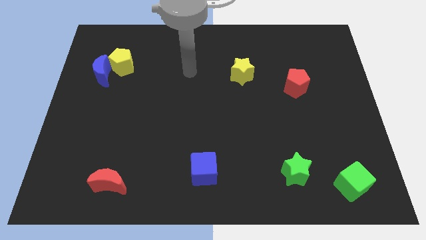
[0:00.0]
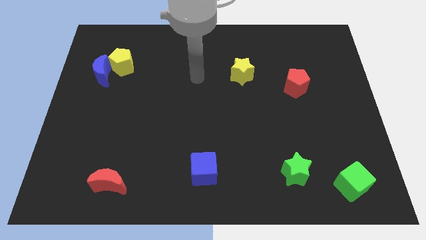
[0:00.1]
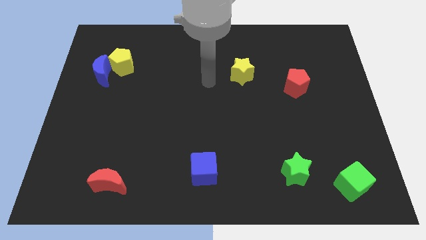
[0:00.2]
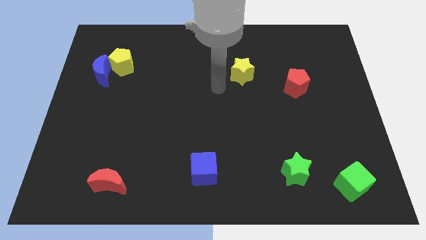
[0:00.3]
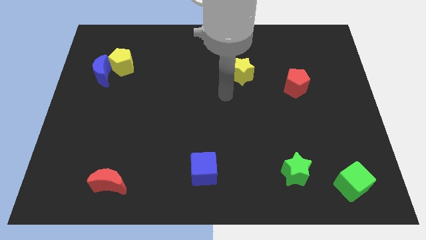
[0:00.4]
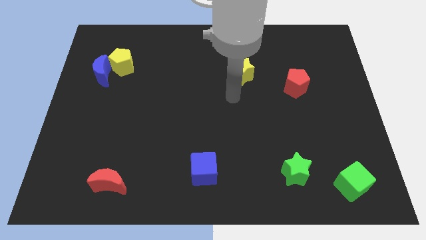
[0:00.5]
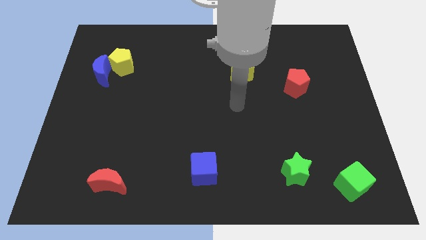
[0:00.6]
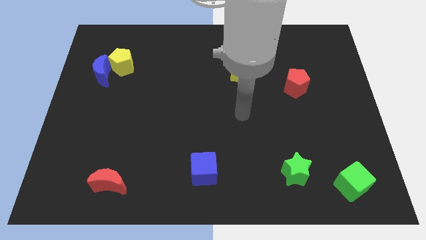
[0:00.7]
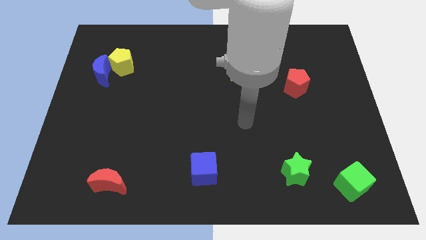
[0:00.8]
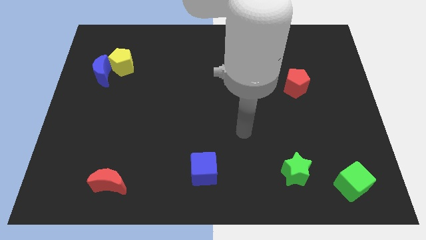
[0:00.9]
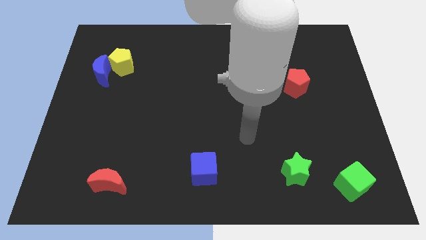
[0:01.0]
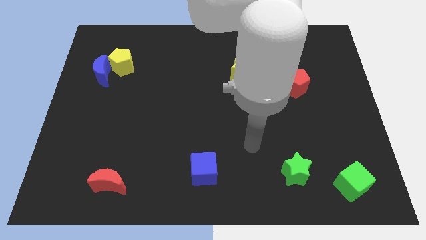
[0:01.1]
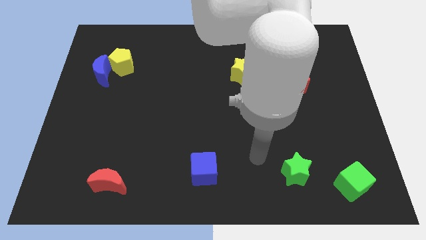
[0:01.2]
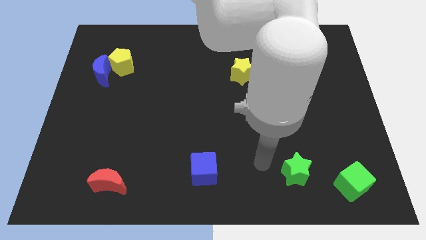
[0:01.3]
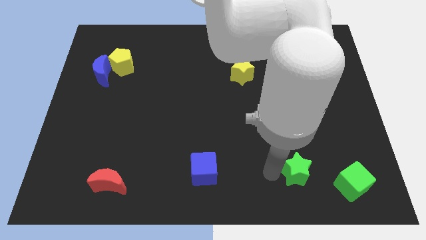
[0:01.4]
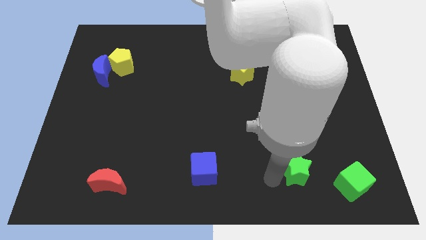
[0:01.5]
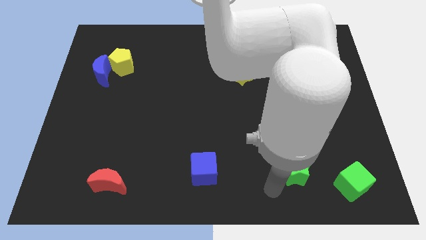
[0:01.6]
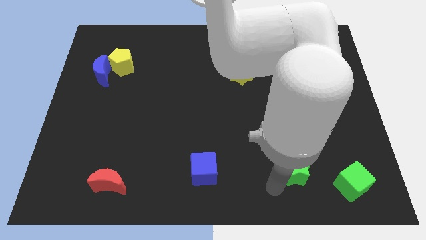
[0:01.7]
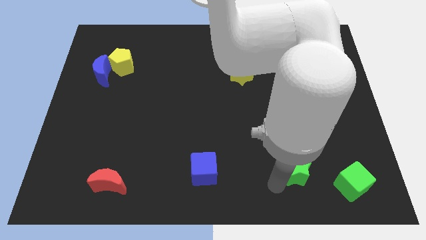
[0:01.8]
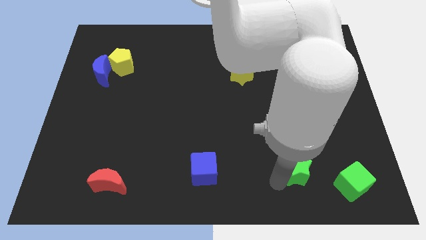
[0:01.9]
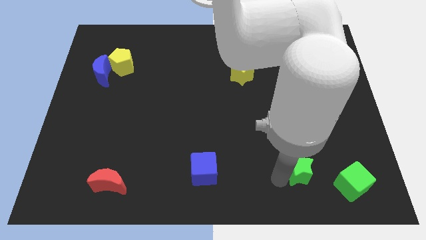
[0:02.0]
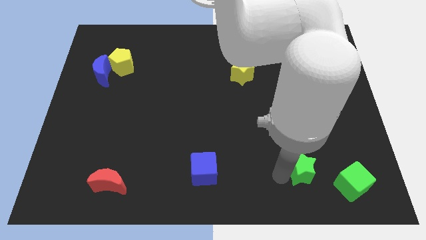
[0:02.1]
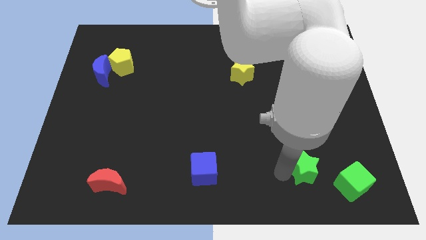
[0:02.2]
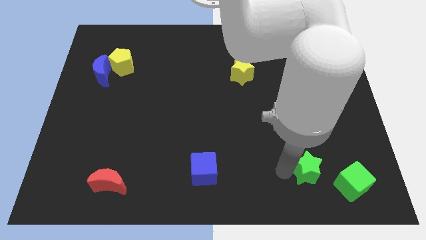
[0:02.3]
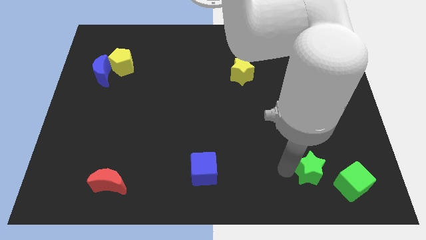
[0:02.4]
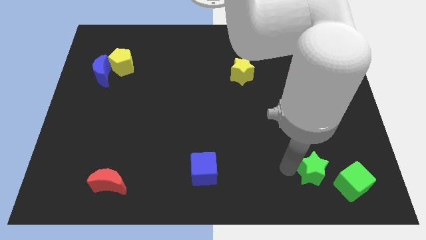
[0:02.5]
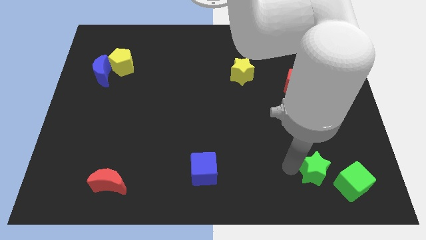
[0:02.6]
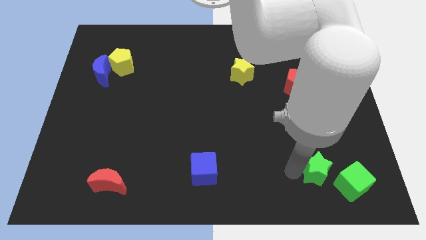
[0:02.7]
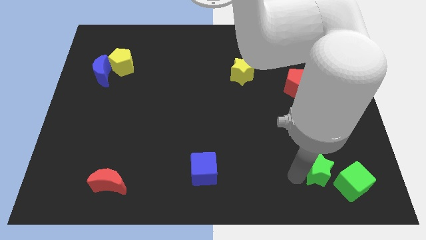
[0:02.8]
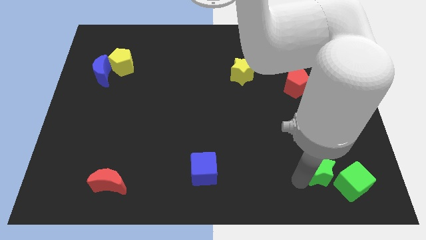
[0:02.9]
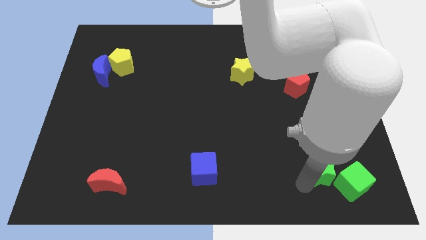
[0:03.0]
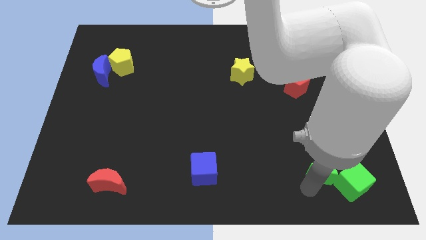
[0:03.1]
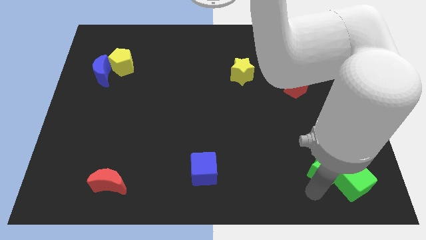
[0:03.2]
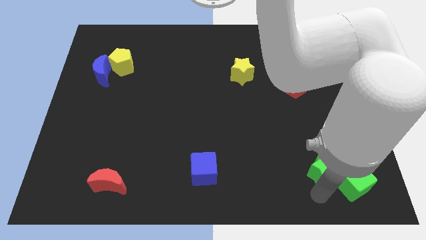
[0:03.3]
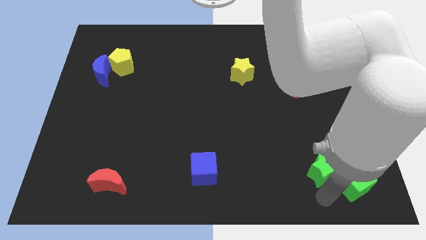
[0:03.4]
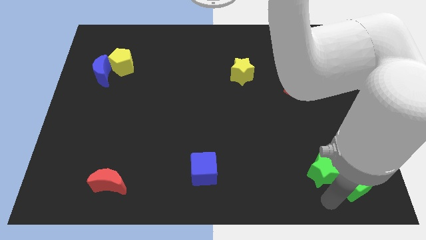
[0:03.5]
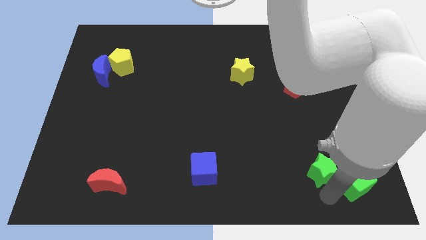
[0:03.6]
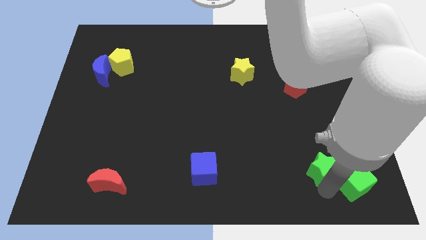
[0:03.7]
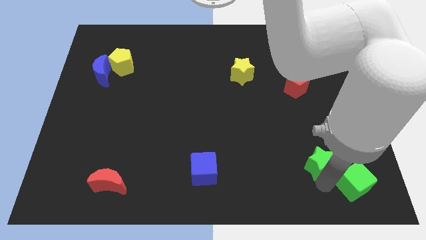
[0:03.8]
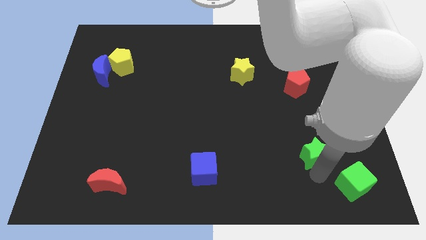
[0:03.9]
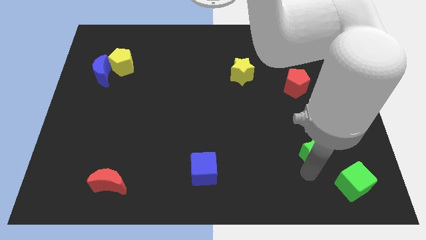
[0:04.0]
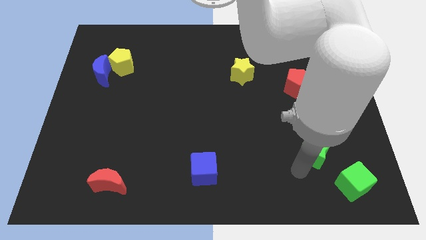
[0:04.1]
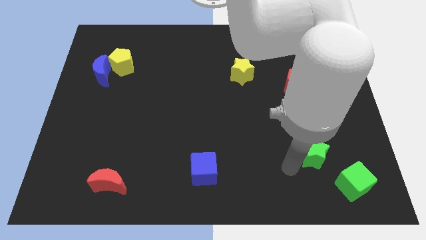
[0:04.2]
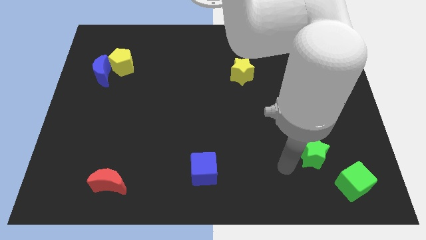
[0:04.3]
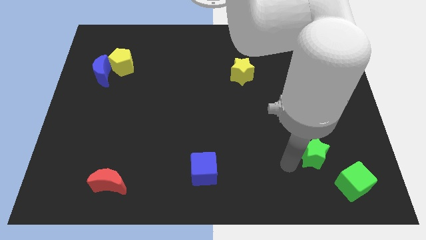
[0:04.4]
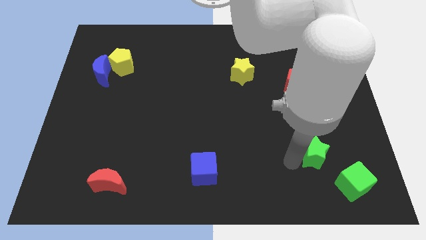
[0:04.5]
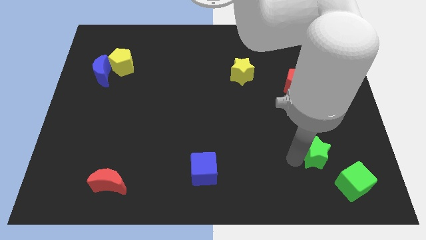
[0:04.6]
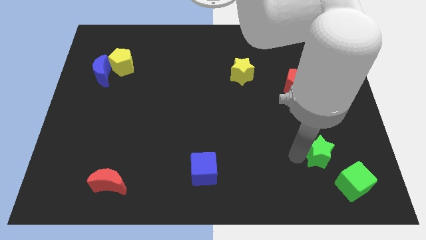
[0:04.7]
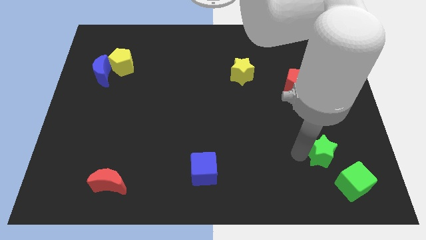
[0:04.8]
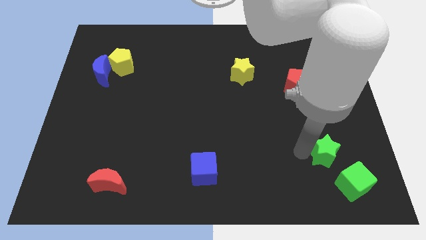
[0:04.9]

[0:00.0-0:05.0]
move the green star to the top of the green cube

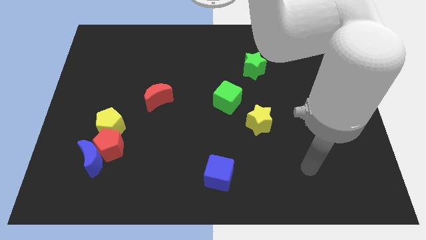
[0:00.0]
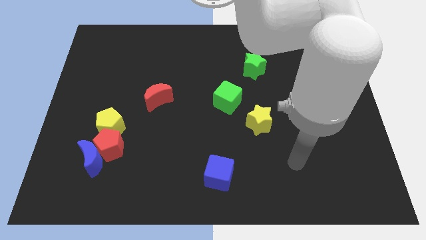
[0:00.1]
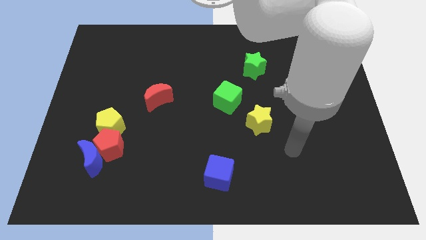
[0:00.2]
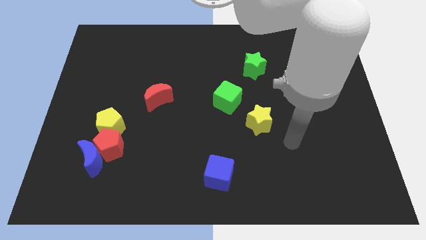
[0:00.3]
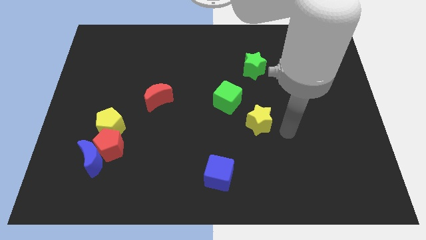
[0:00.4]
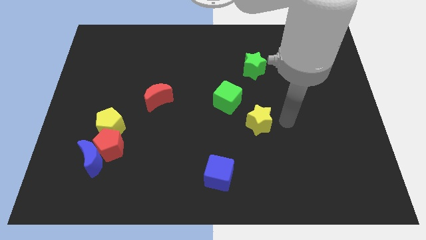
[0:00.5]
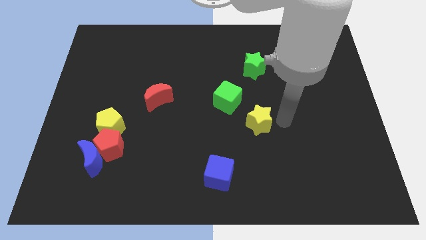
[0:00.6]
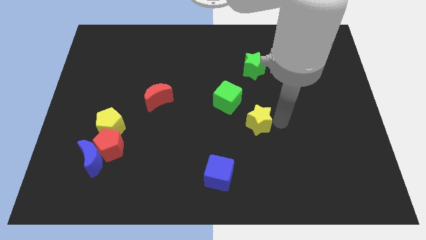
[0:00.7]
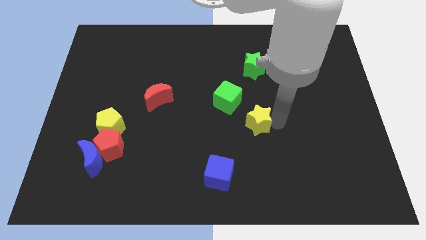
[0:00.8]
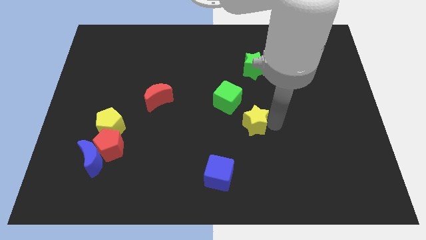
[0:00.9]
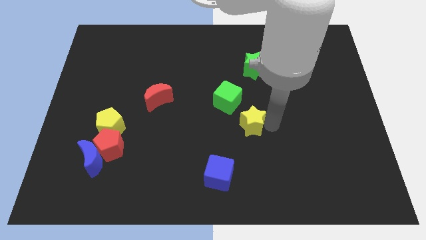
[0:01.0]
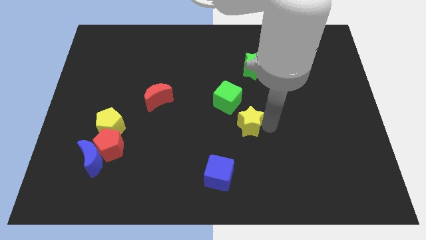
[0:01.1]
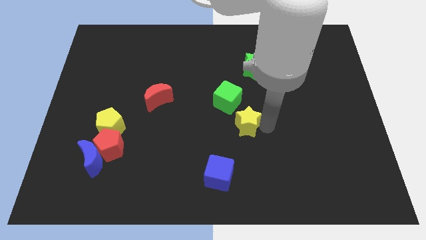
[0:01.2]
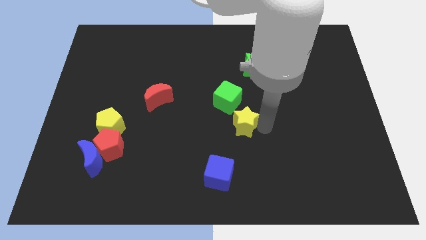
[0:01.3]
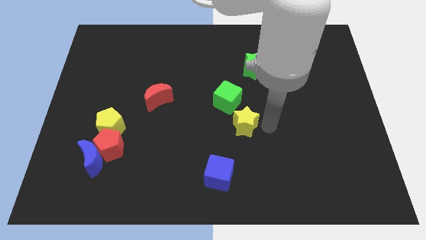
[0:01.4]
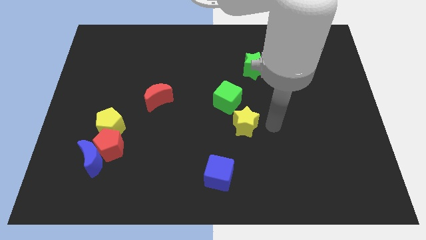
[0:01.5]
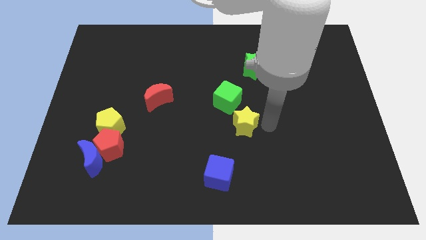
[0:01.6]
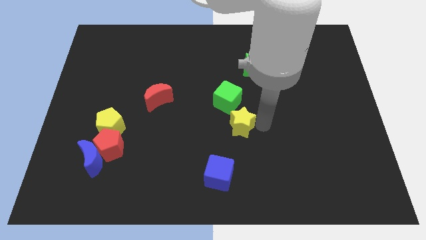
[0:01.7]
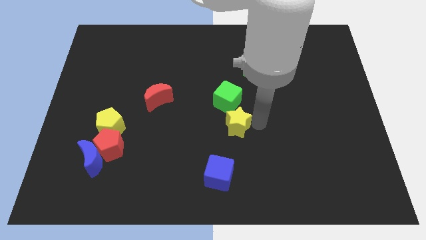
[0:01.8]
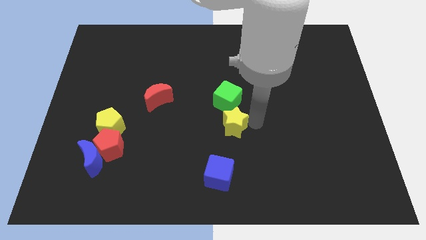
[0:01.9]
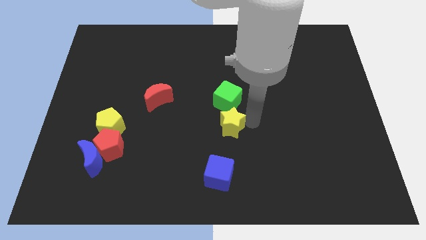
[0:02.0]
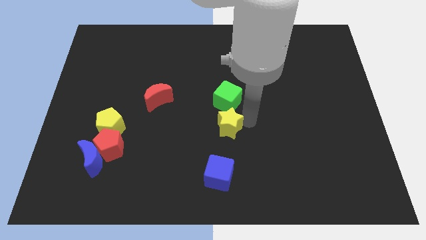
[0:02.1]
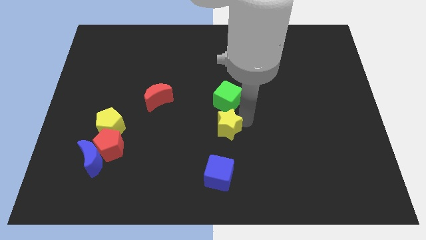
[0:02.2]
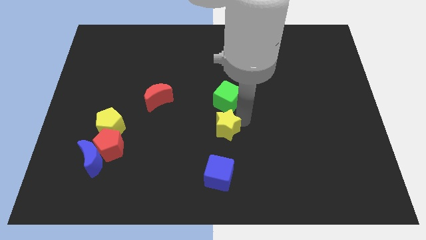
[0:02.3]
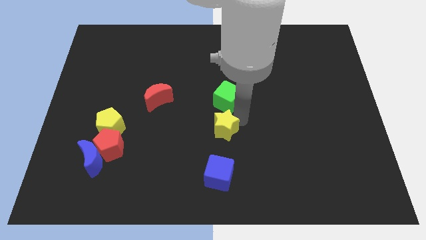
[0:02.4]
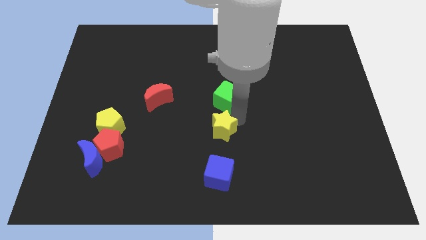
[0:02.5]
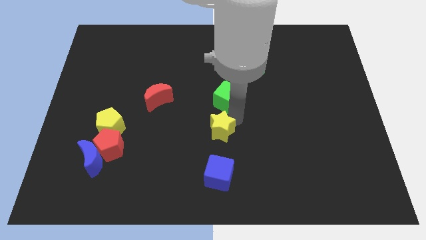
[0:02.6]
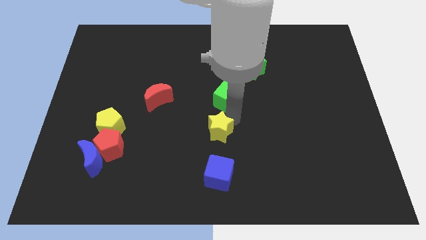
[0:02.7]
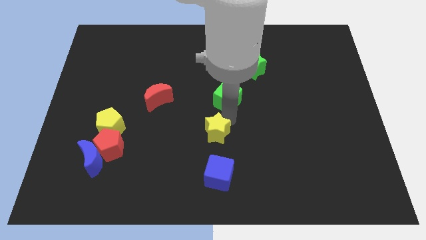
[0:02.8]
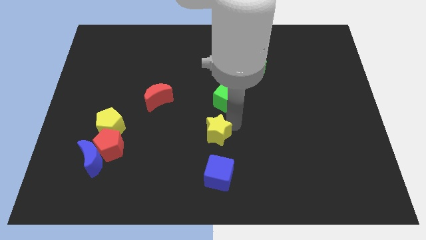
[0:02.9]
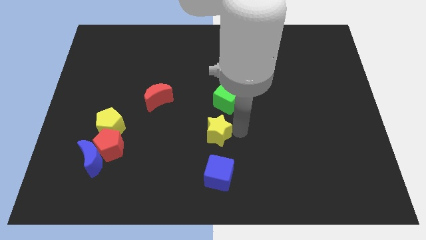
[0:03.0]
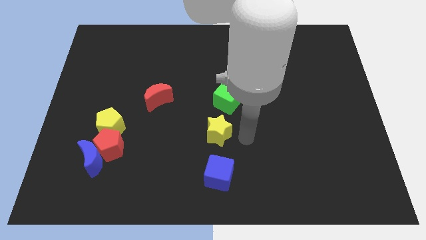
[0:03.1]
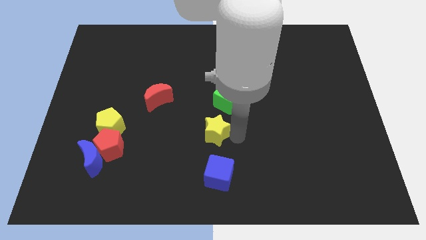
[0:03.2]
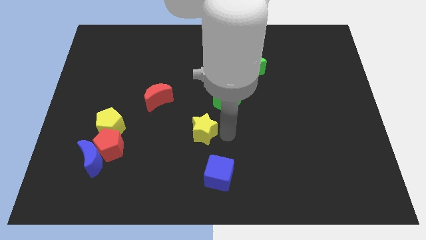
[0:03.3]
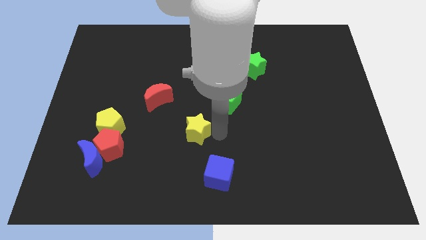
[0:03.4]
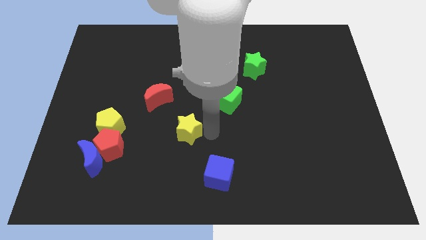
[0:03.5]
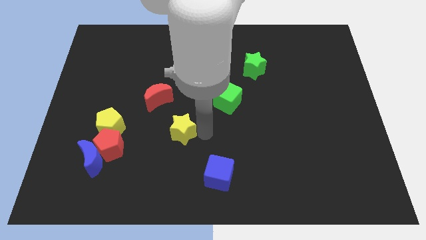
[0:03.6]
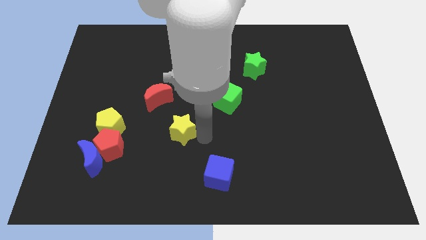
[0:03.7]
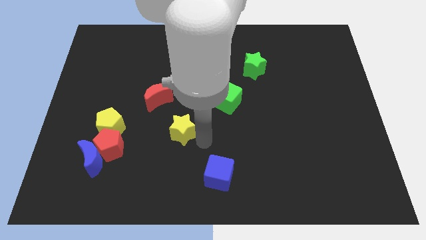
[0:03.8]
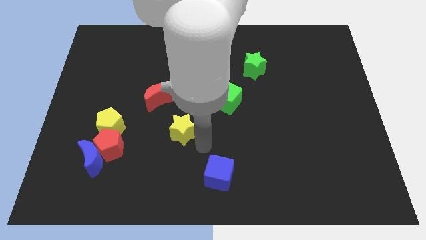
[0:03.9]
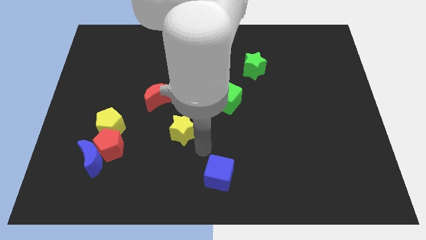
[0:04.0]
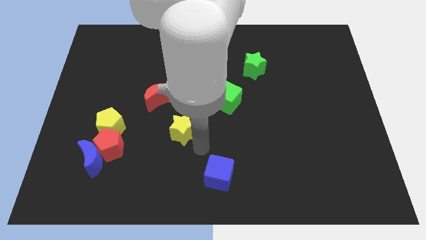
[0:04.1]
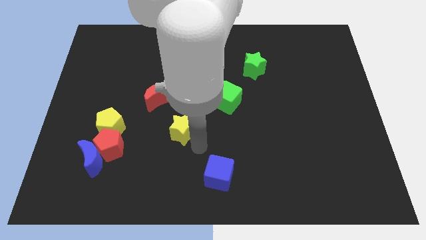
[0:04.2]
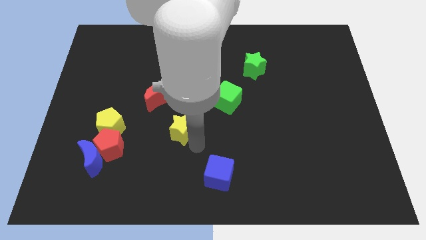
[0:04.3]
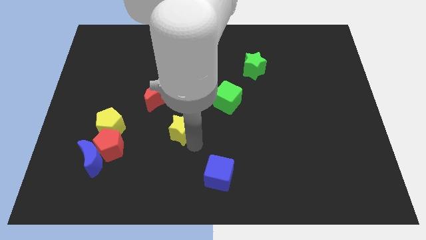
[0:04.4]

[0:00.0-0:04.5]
put the yellow star to the right of the yellow pentagon
